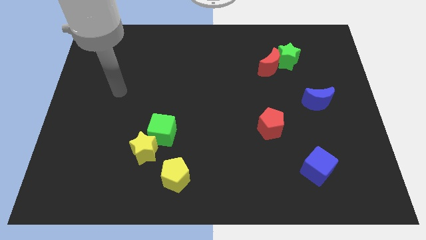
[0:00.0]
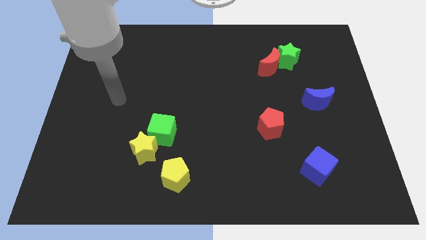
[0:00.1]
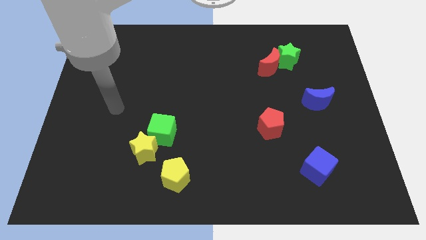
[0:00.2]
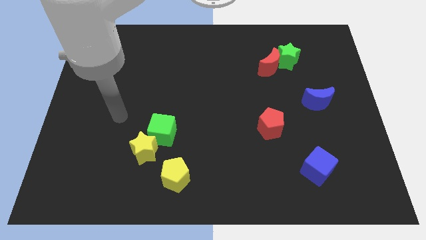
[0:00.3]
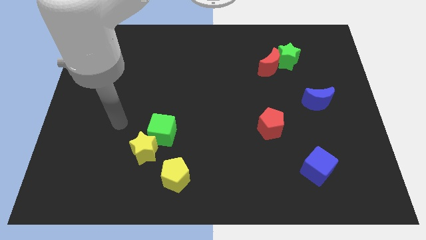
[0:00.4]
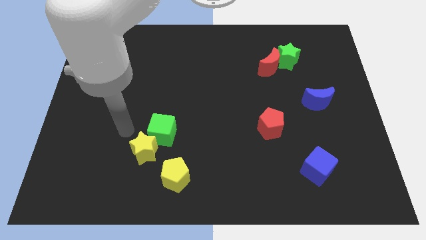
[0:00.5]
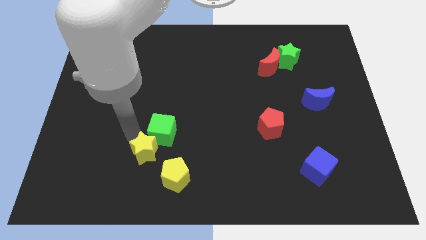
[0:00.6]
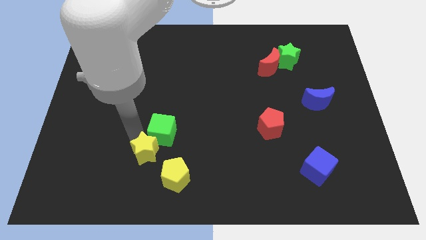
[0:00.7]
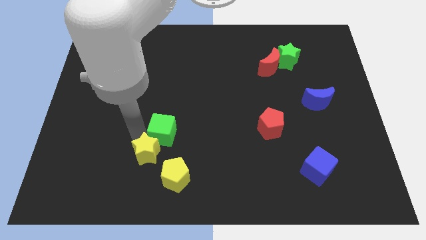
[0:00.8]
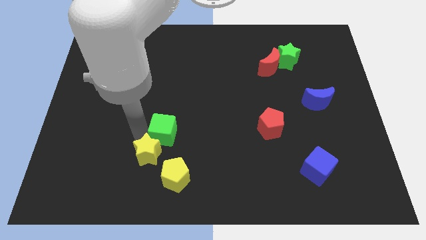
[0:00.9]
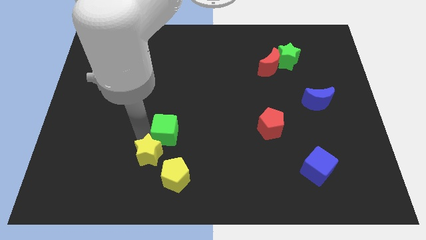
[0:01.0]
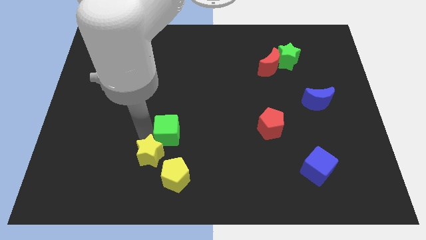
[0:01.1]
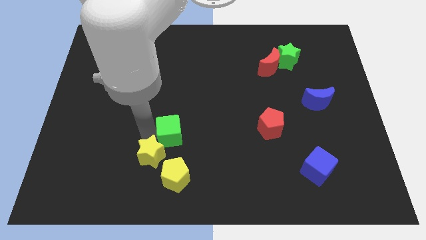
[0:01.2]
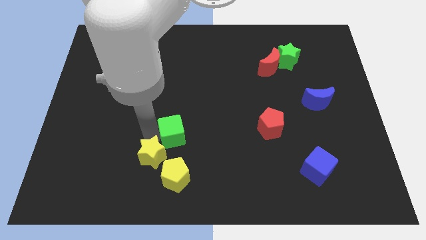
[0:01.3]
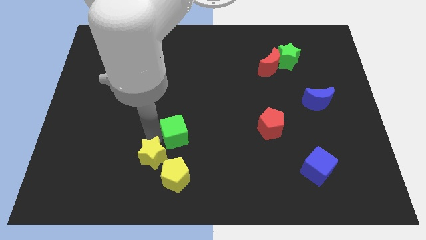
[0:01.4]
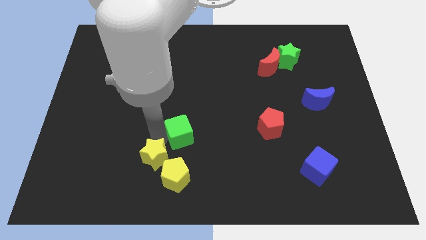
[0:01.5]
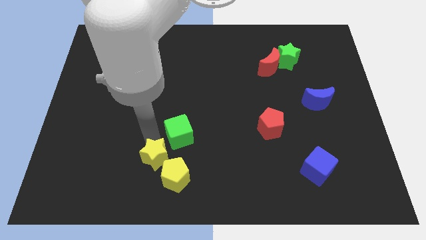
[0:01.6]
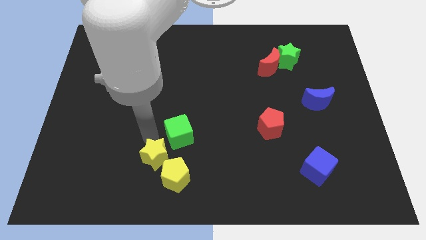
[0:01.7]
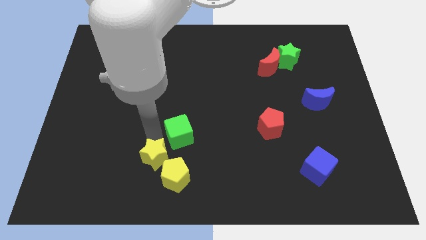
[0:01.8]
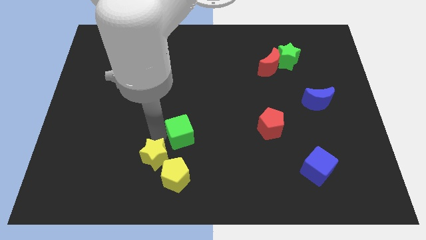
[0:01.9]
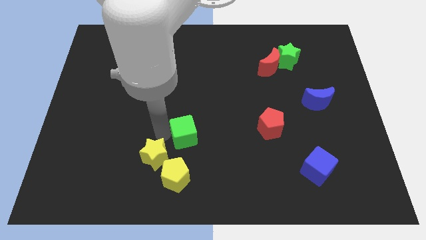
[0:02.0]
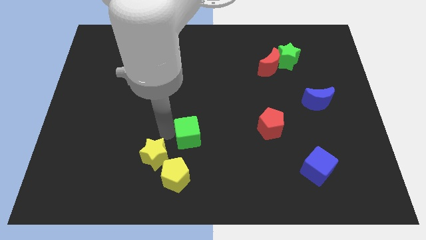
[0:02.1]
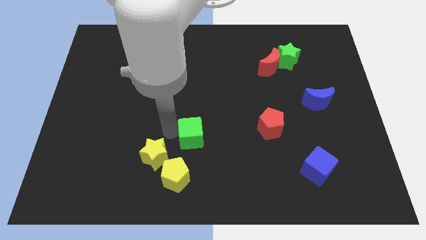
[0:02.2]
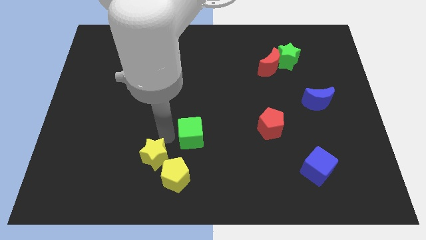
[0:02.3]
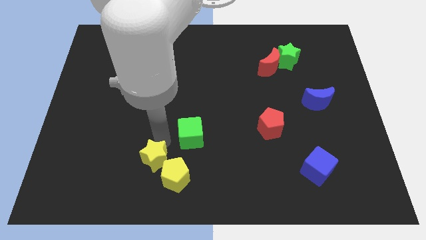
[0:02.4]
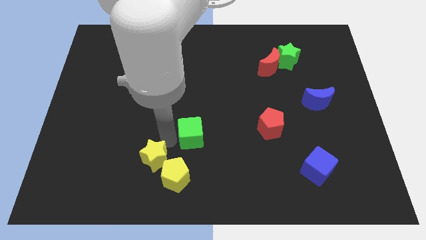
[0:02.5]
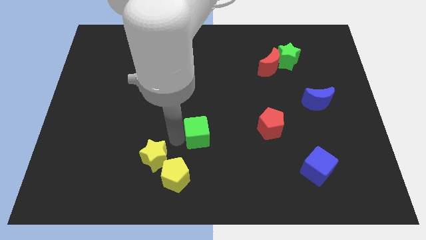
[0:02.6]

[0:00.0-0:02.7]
push the green cube right a little

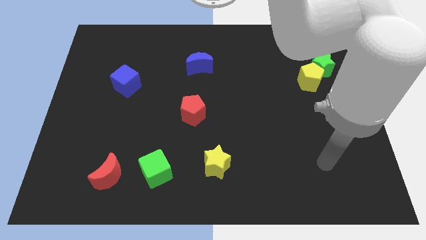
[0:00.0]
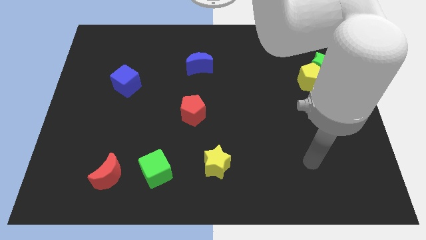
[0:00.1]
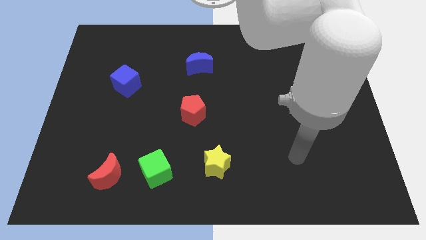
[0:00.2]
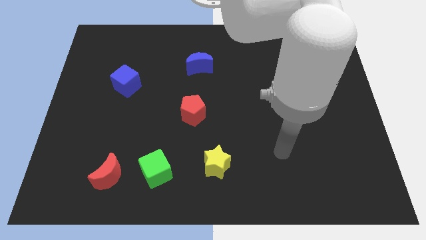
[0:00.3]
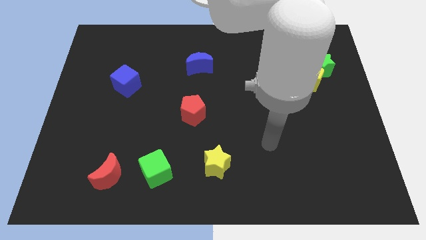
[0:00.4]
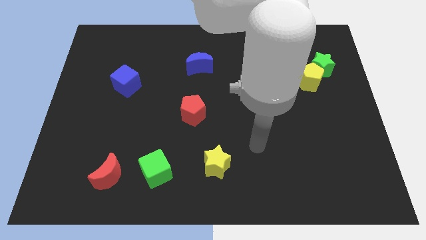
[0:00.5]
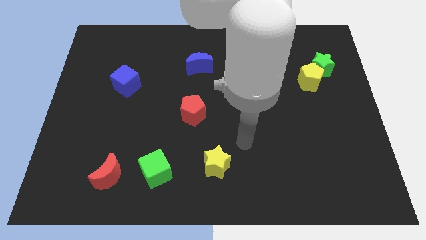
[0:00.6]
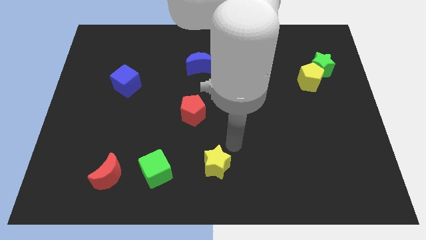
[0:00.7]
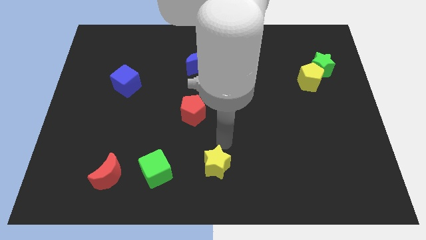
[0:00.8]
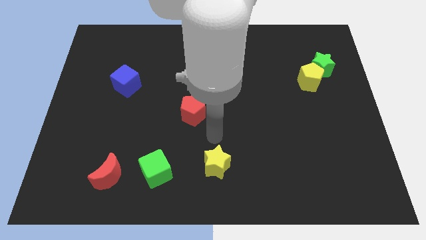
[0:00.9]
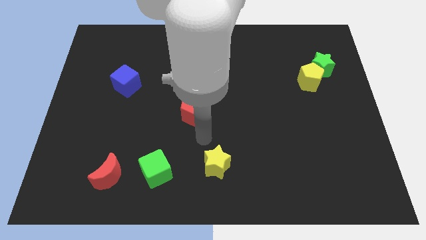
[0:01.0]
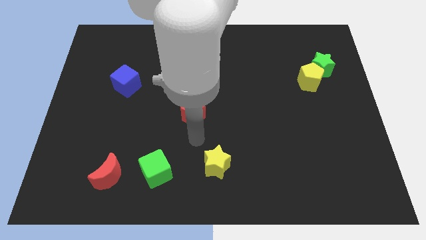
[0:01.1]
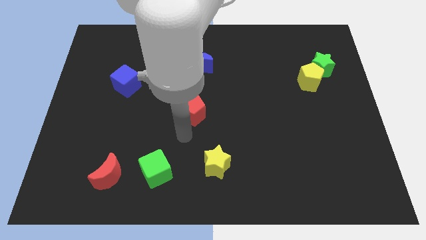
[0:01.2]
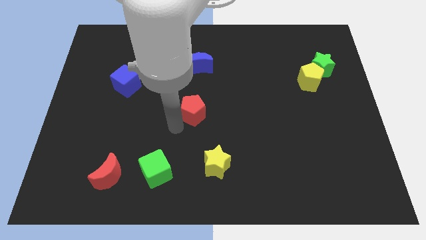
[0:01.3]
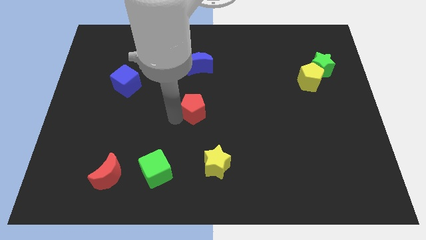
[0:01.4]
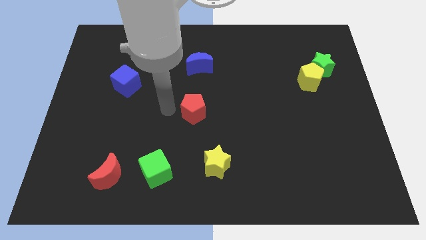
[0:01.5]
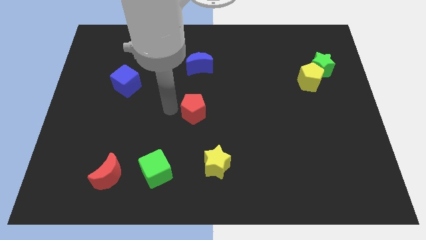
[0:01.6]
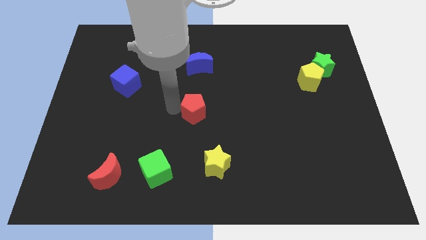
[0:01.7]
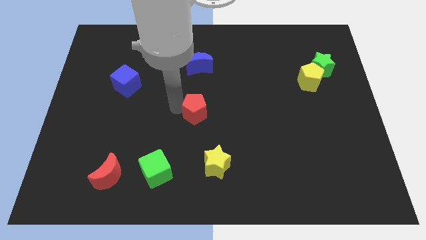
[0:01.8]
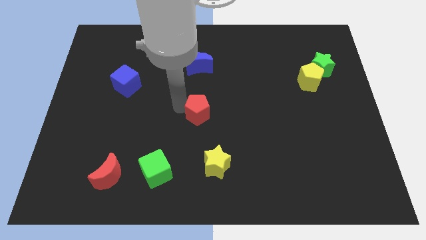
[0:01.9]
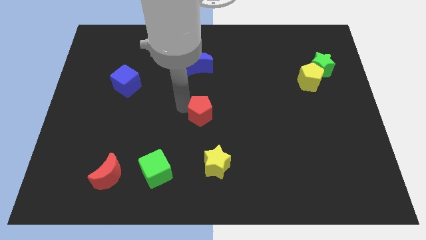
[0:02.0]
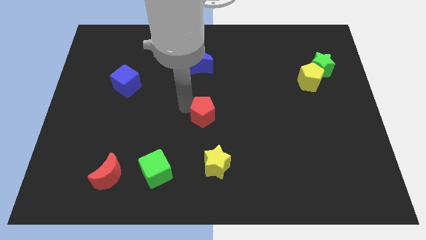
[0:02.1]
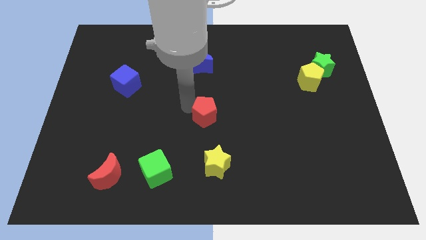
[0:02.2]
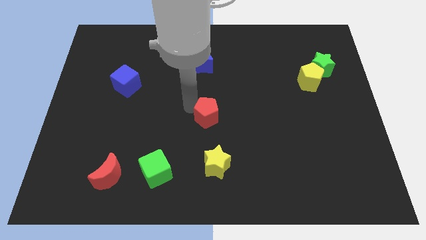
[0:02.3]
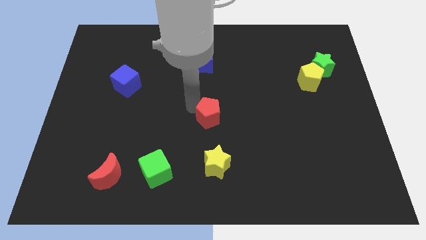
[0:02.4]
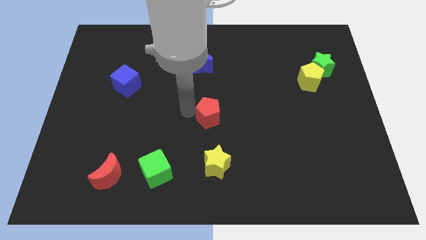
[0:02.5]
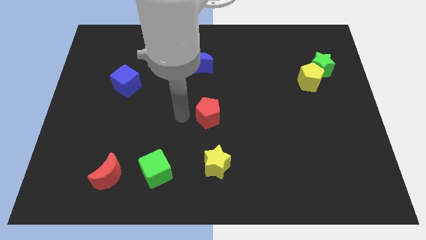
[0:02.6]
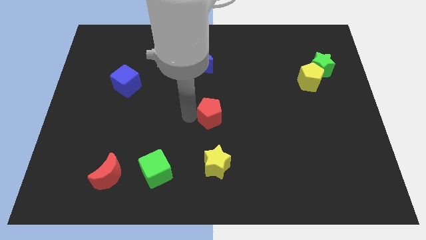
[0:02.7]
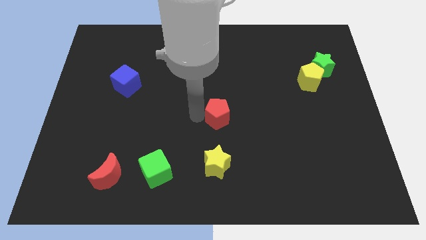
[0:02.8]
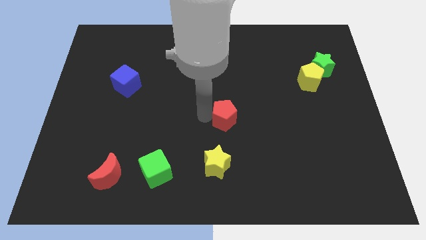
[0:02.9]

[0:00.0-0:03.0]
push the red pentagon slightly right

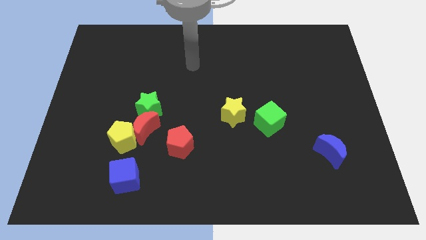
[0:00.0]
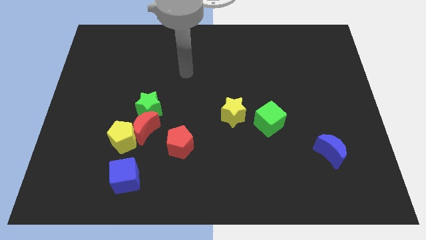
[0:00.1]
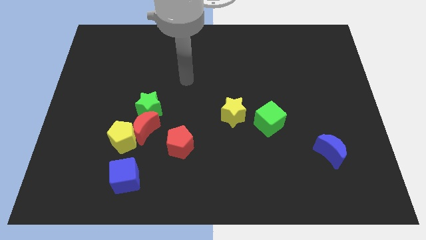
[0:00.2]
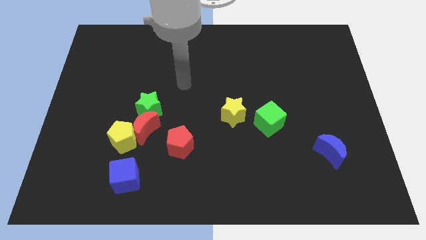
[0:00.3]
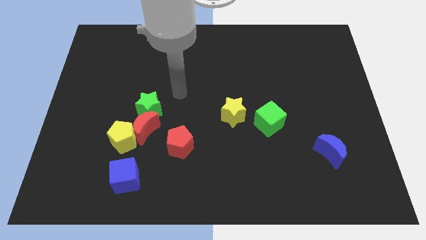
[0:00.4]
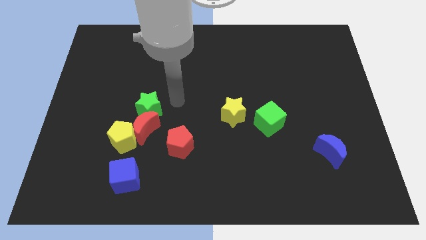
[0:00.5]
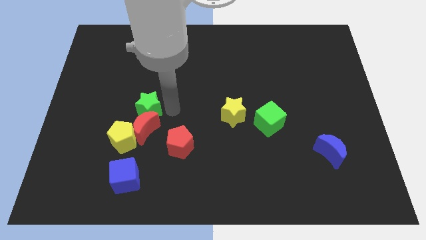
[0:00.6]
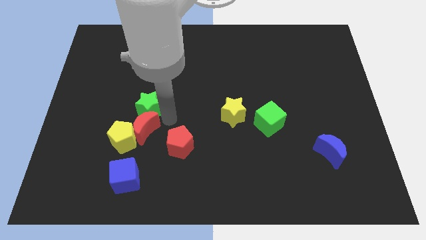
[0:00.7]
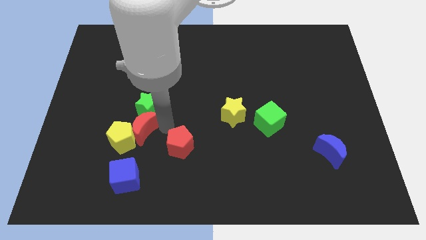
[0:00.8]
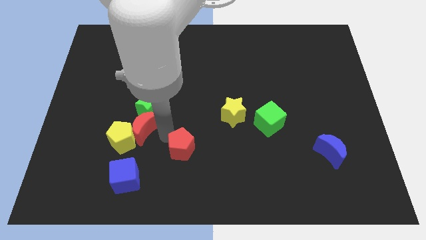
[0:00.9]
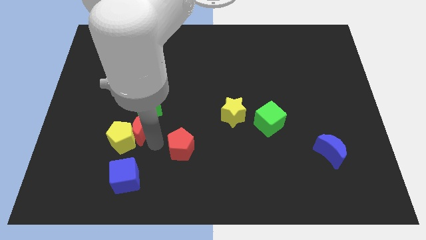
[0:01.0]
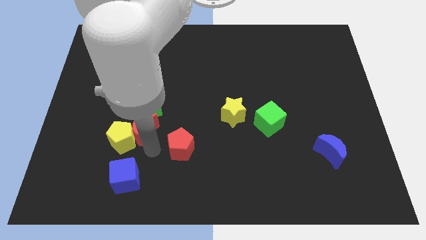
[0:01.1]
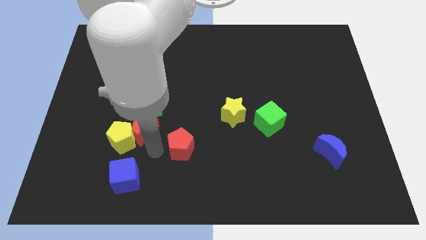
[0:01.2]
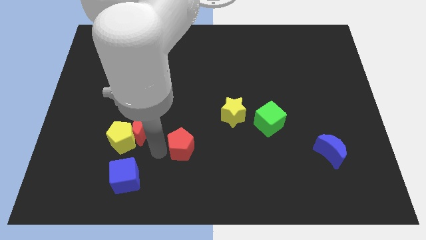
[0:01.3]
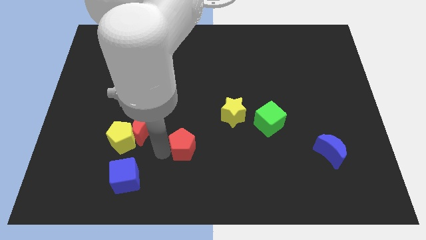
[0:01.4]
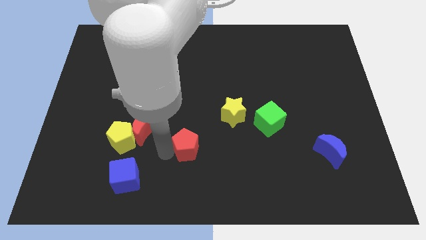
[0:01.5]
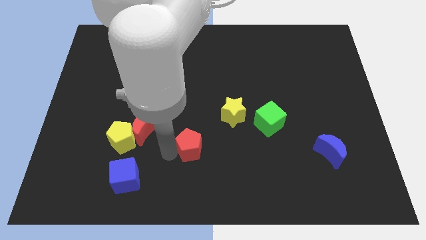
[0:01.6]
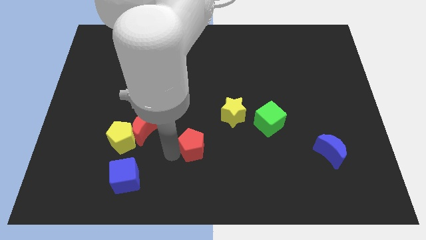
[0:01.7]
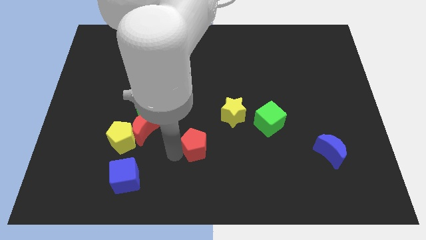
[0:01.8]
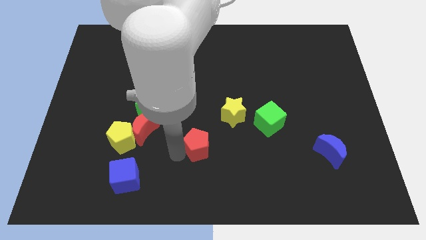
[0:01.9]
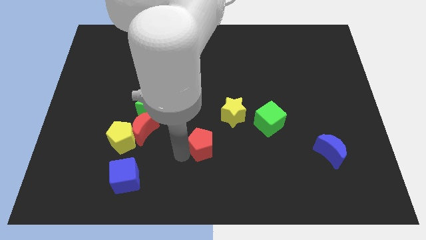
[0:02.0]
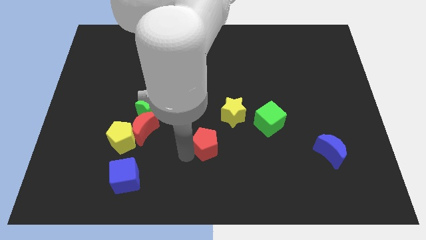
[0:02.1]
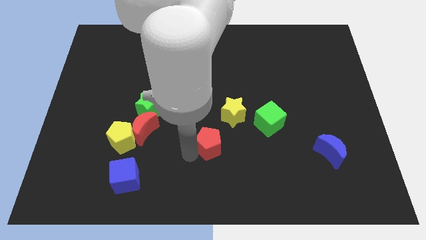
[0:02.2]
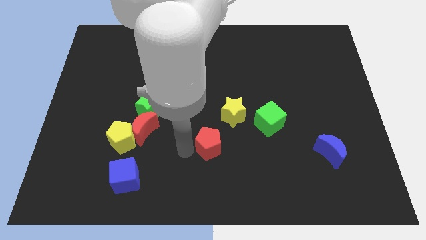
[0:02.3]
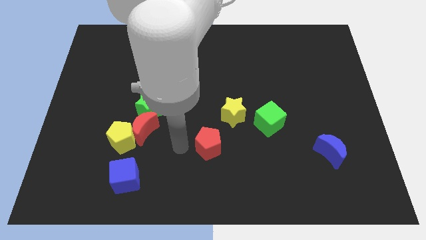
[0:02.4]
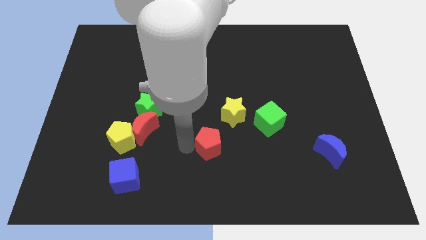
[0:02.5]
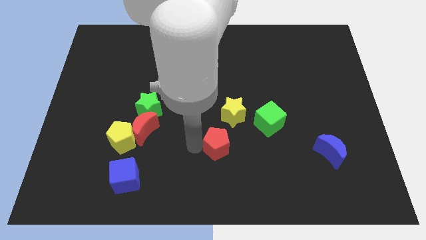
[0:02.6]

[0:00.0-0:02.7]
move the red pentagon right a little bit
